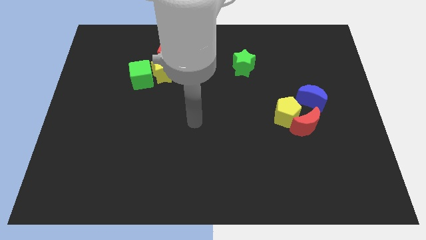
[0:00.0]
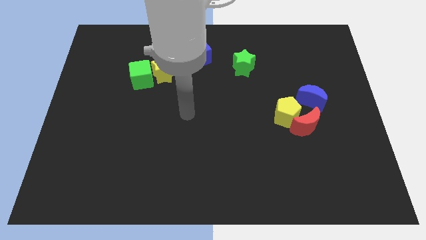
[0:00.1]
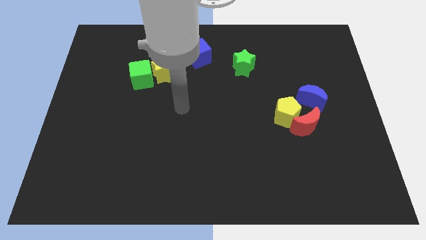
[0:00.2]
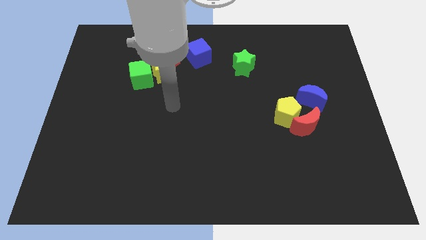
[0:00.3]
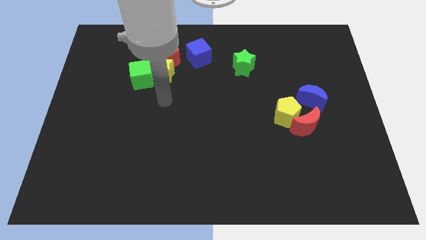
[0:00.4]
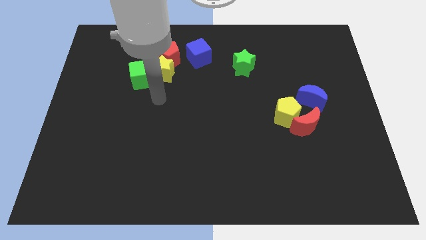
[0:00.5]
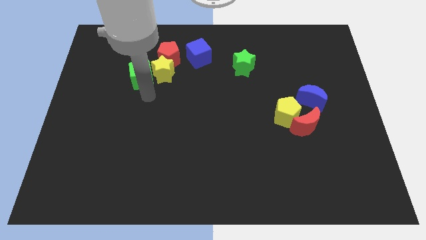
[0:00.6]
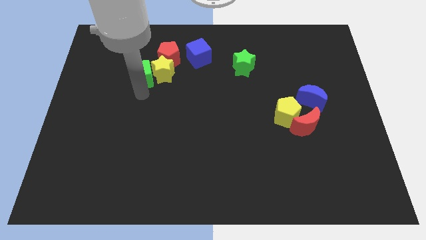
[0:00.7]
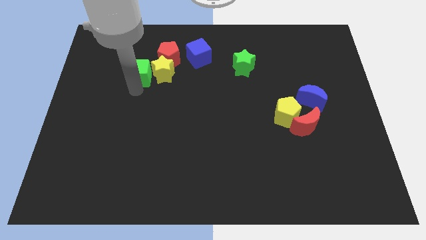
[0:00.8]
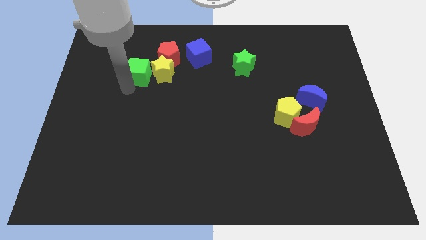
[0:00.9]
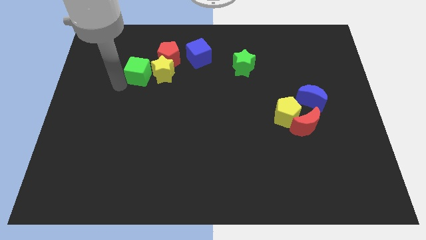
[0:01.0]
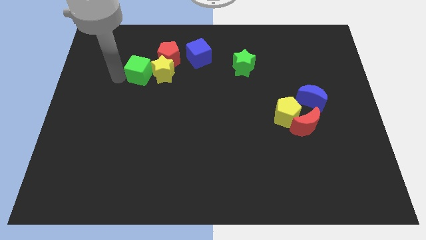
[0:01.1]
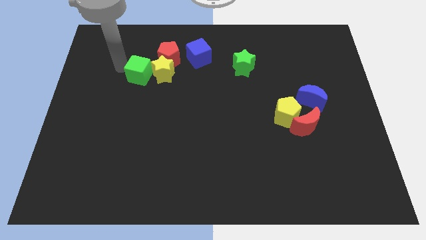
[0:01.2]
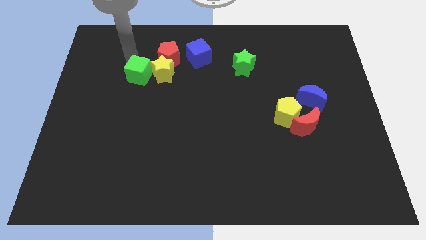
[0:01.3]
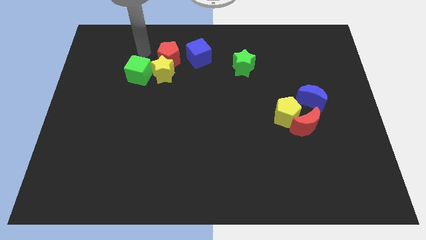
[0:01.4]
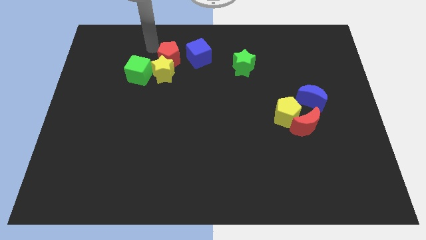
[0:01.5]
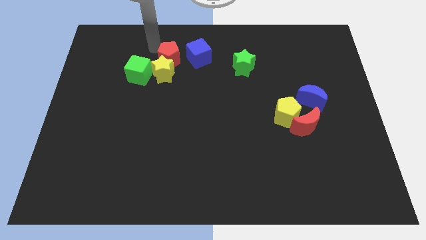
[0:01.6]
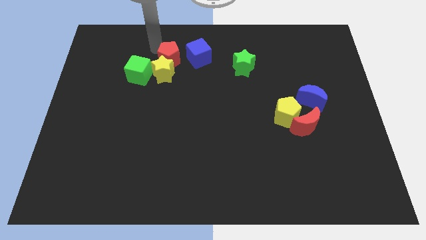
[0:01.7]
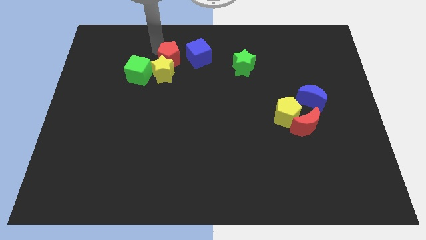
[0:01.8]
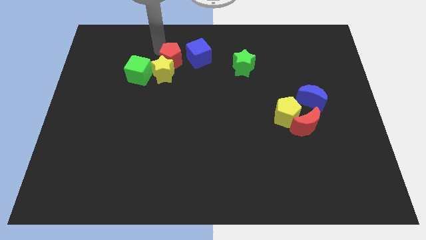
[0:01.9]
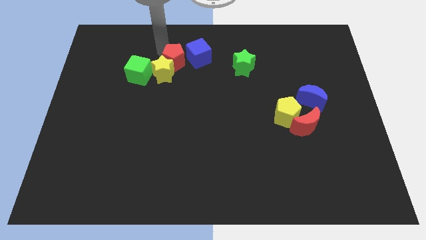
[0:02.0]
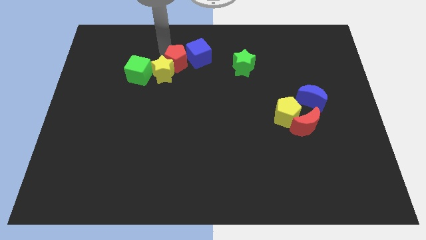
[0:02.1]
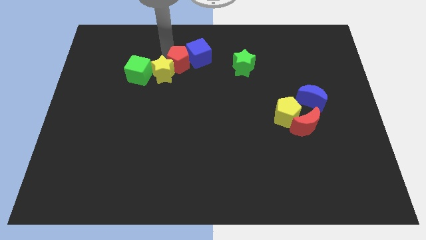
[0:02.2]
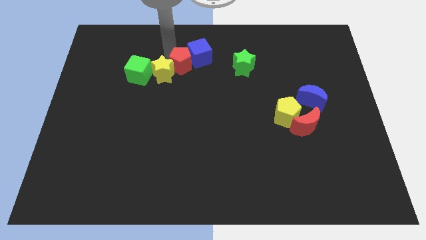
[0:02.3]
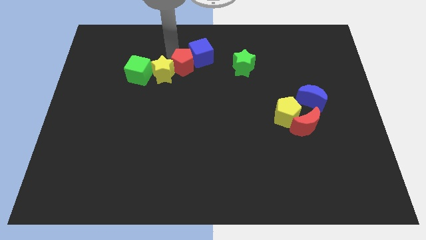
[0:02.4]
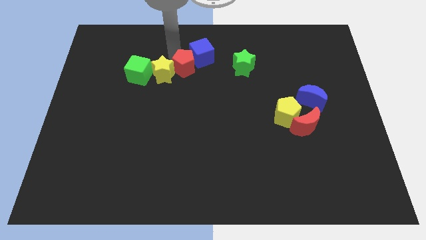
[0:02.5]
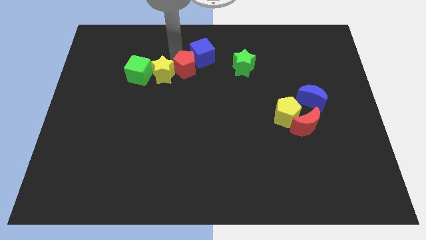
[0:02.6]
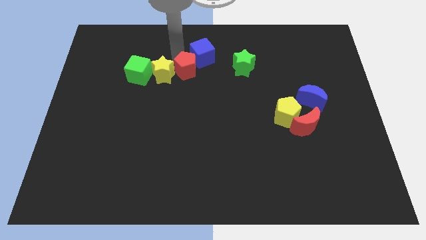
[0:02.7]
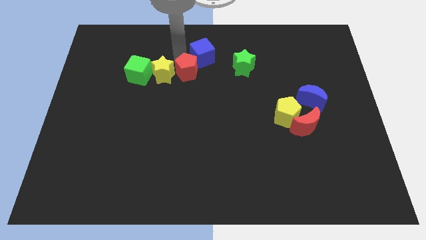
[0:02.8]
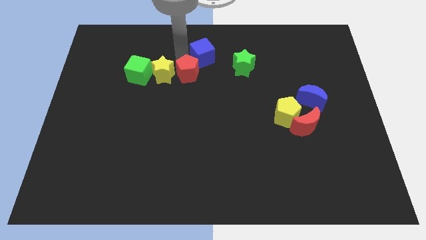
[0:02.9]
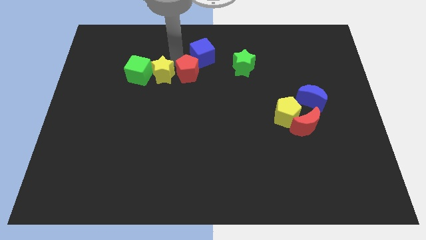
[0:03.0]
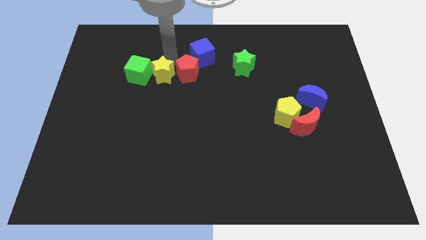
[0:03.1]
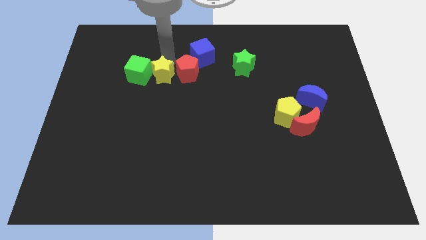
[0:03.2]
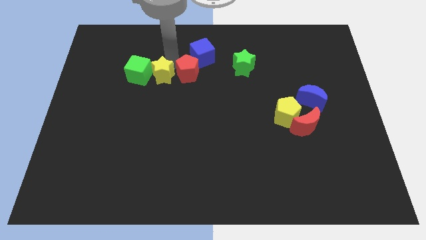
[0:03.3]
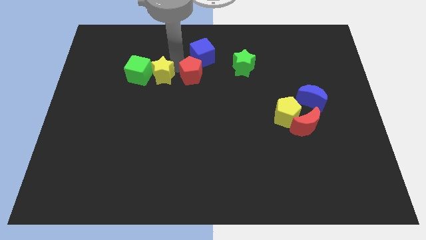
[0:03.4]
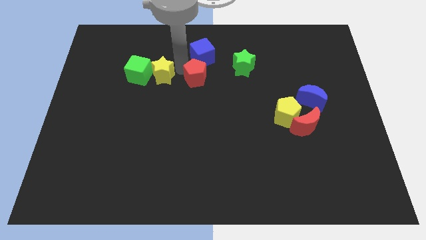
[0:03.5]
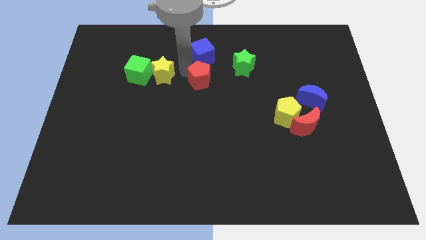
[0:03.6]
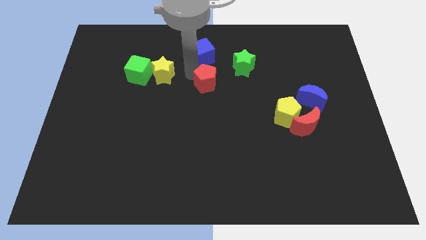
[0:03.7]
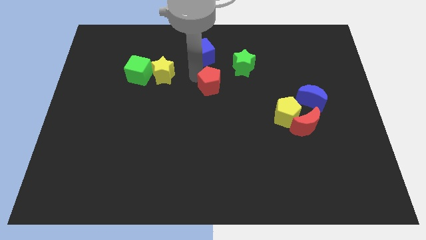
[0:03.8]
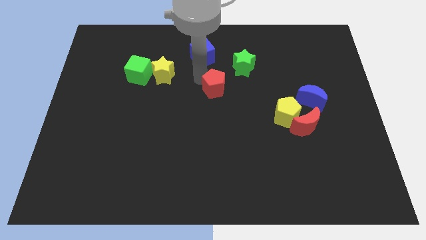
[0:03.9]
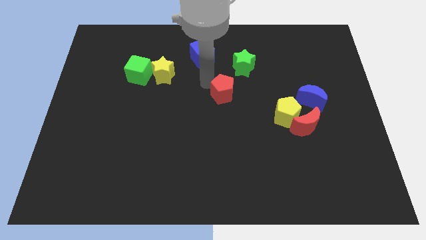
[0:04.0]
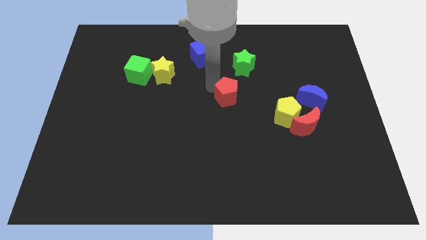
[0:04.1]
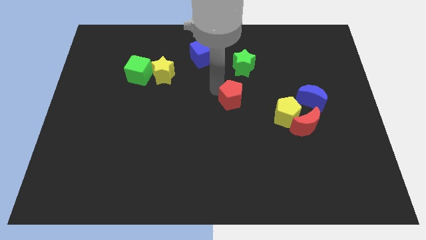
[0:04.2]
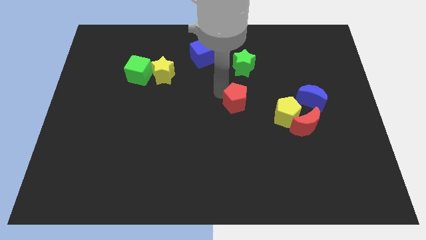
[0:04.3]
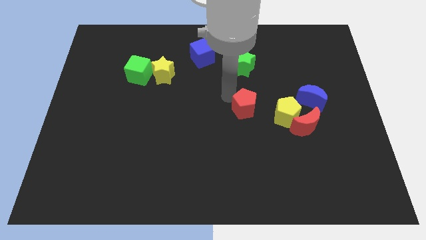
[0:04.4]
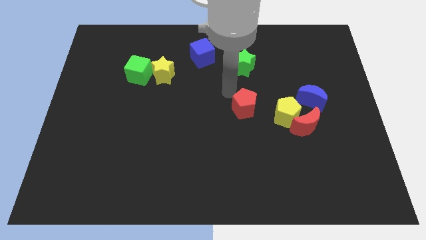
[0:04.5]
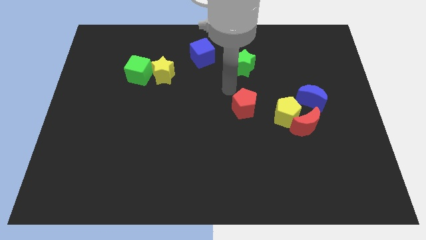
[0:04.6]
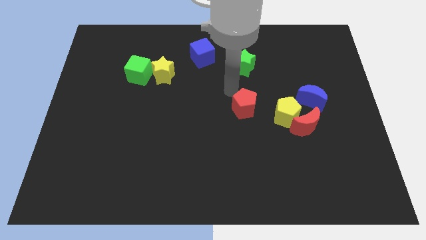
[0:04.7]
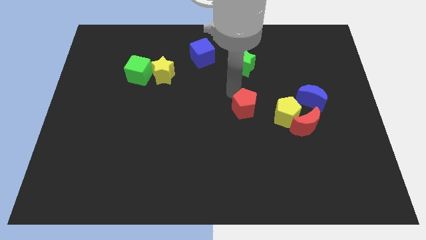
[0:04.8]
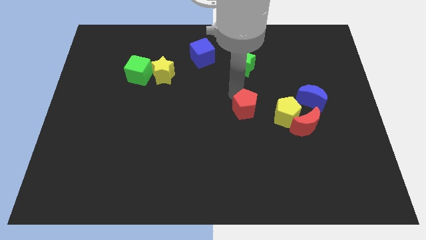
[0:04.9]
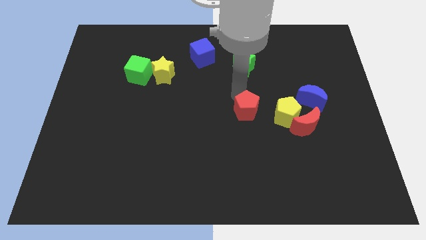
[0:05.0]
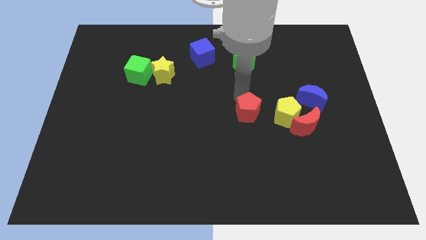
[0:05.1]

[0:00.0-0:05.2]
put the red pentagon to the left of the red moon

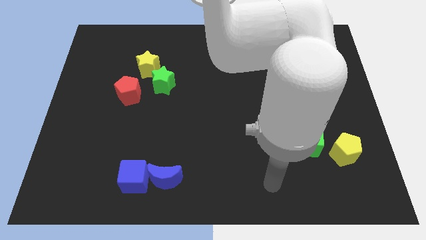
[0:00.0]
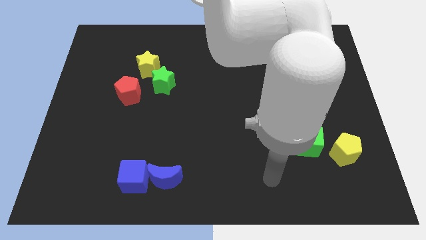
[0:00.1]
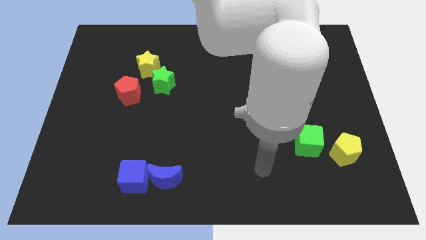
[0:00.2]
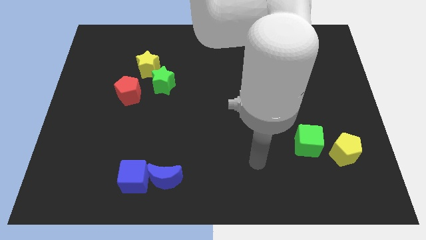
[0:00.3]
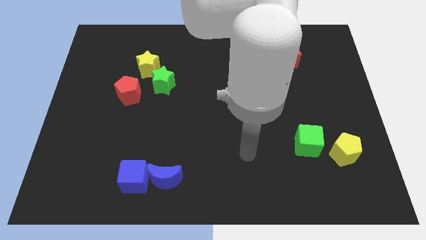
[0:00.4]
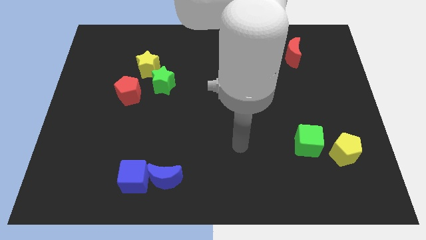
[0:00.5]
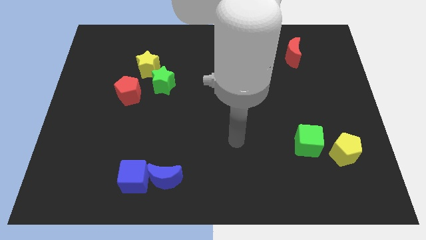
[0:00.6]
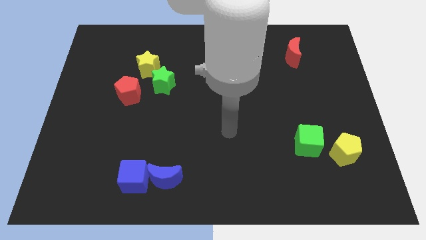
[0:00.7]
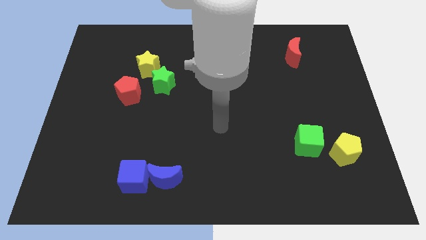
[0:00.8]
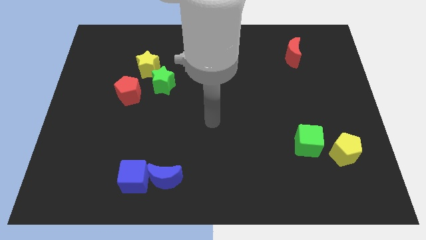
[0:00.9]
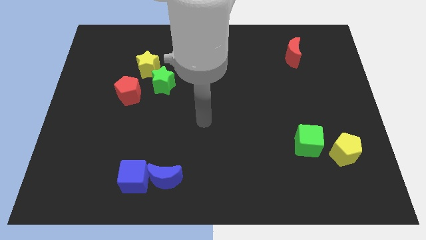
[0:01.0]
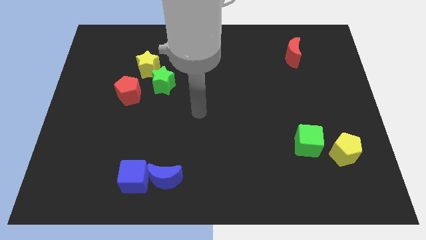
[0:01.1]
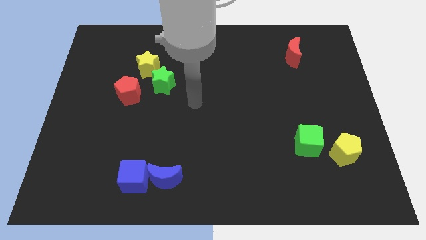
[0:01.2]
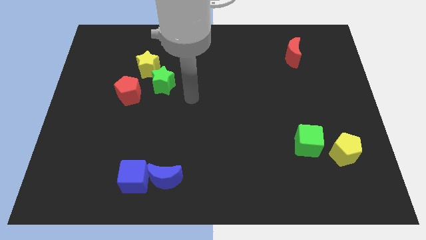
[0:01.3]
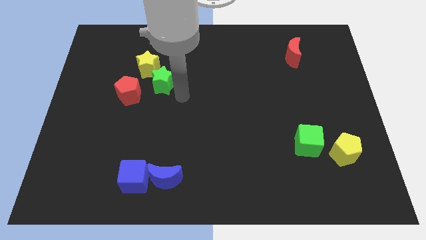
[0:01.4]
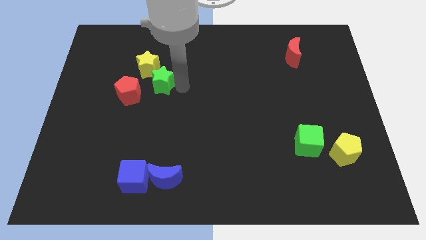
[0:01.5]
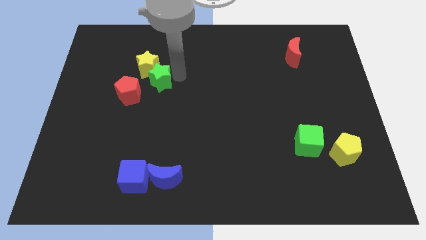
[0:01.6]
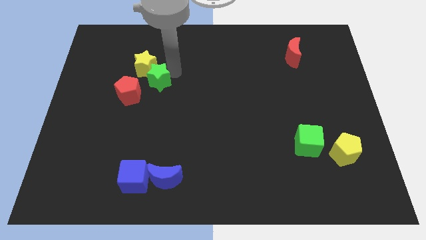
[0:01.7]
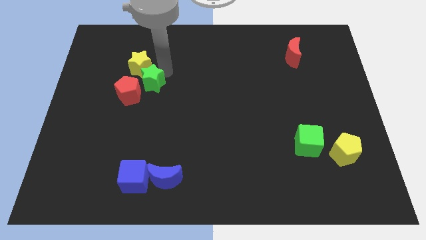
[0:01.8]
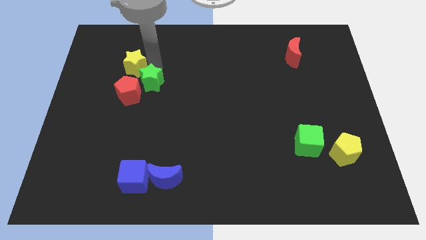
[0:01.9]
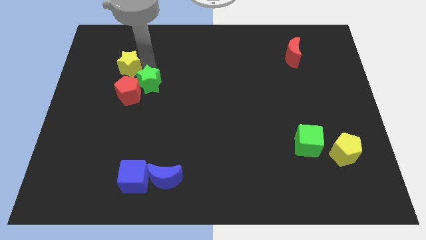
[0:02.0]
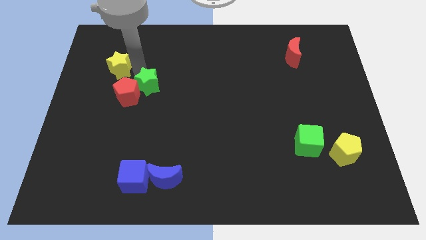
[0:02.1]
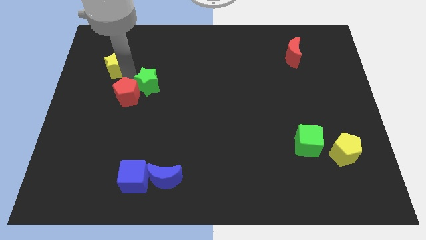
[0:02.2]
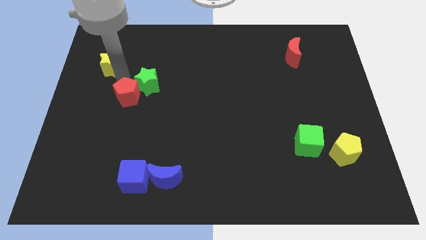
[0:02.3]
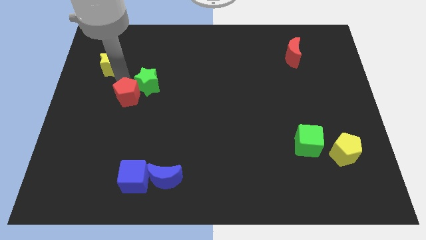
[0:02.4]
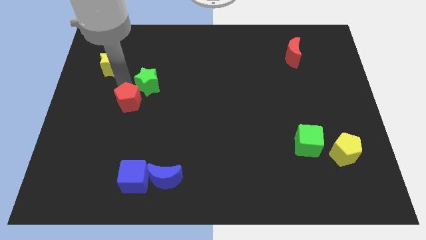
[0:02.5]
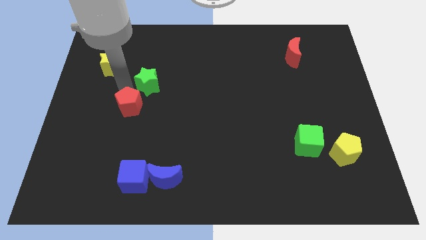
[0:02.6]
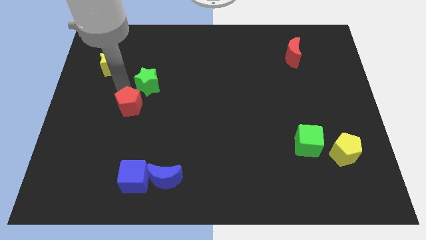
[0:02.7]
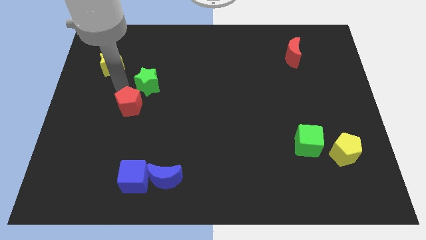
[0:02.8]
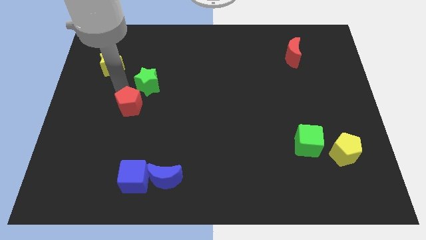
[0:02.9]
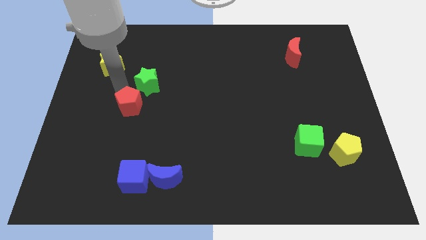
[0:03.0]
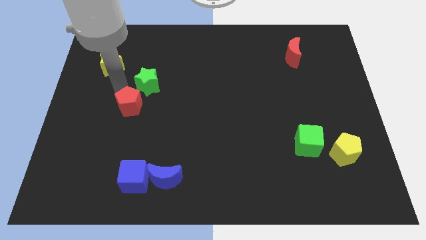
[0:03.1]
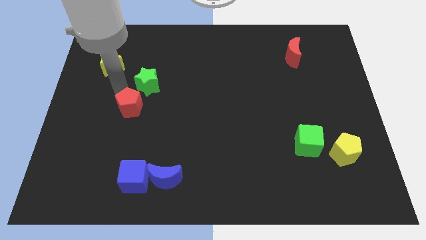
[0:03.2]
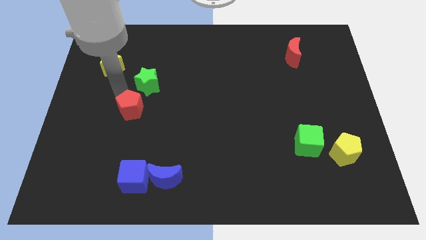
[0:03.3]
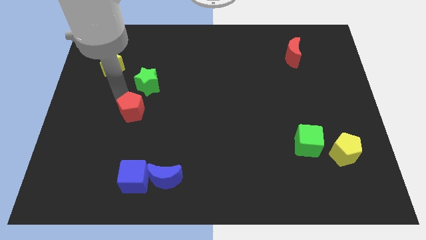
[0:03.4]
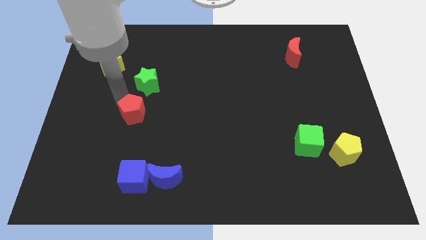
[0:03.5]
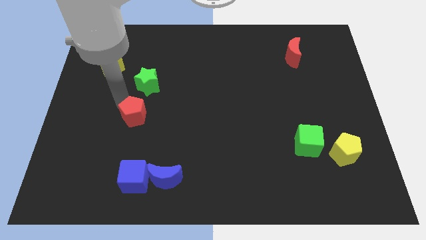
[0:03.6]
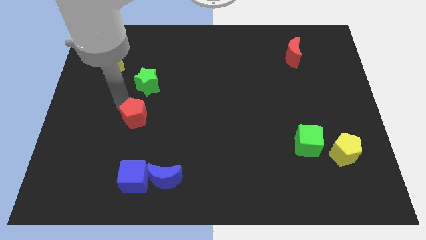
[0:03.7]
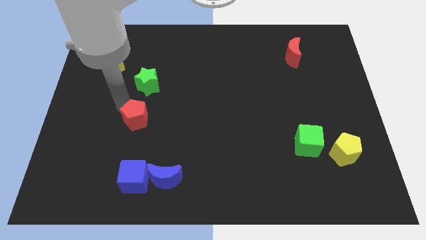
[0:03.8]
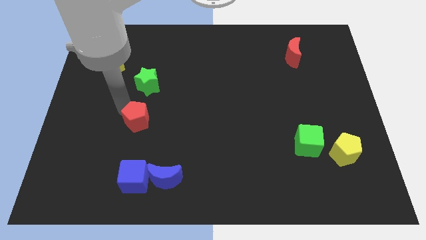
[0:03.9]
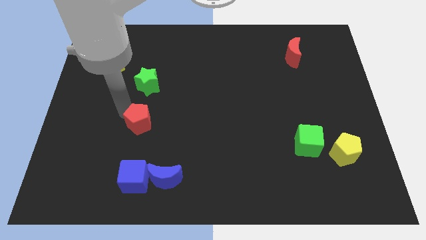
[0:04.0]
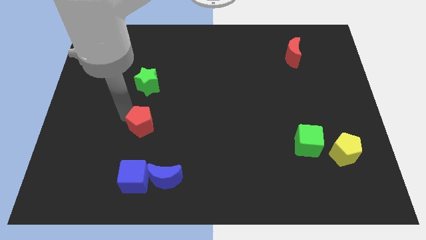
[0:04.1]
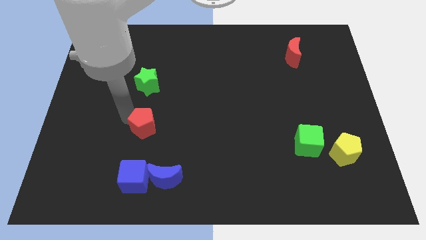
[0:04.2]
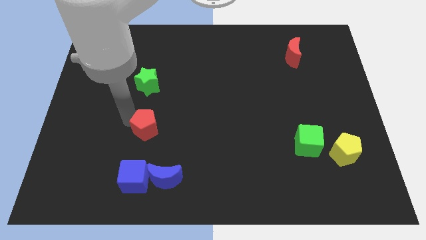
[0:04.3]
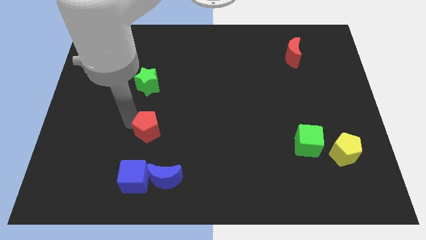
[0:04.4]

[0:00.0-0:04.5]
put the red pentagon above the blue moon
